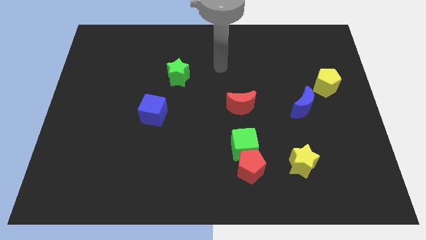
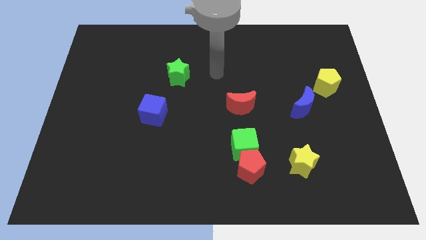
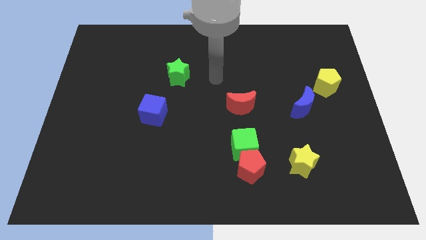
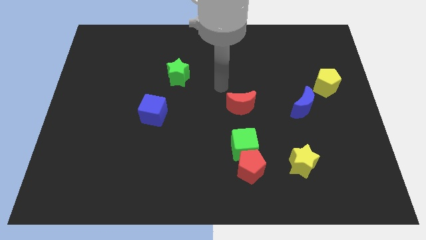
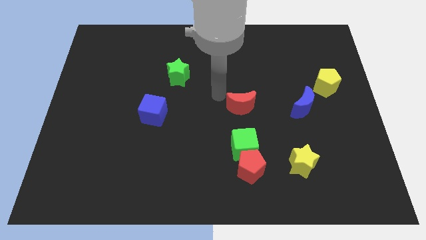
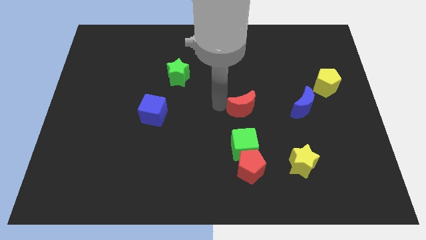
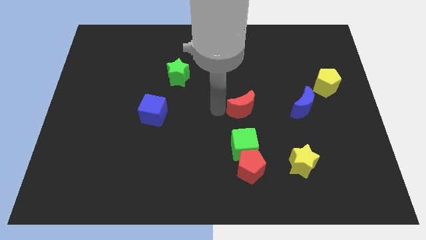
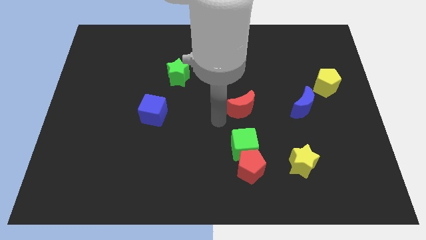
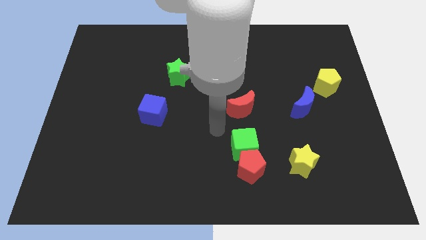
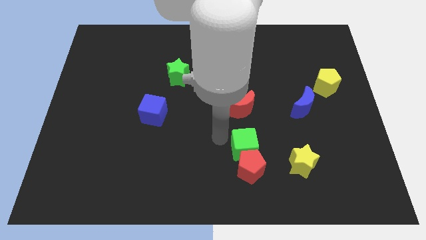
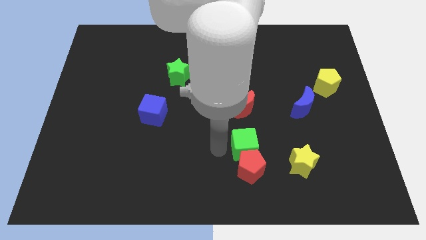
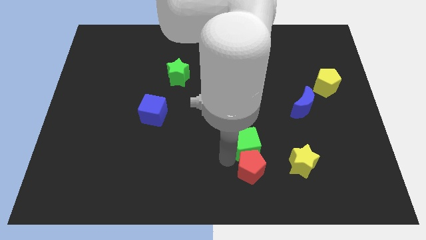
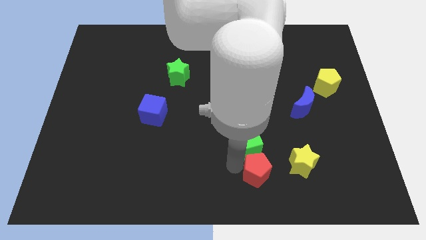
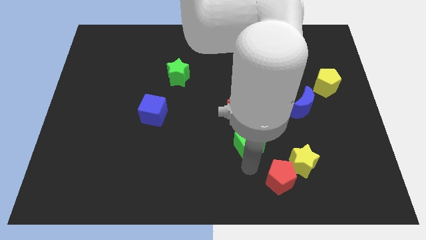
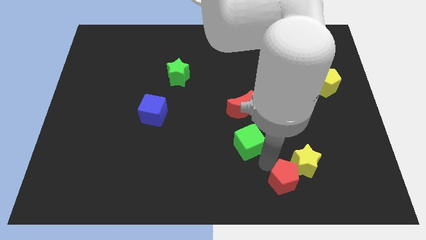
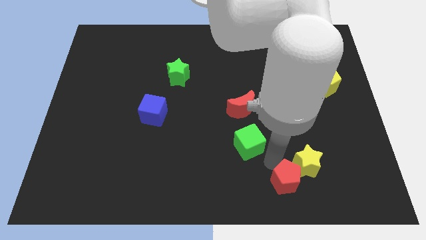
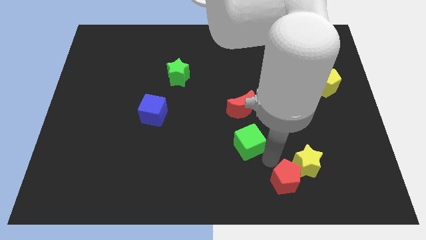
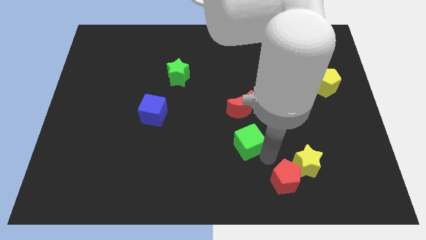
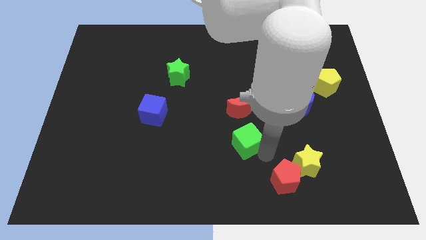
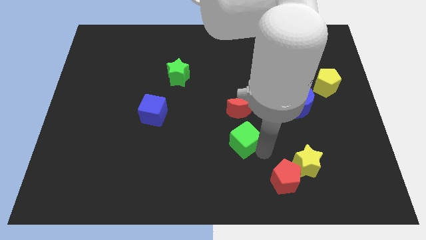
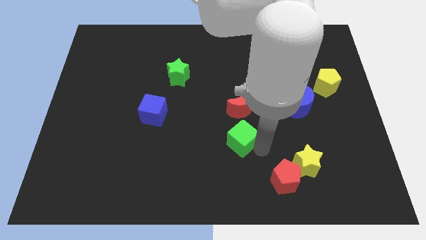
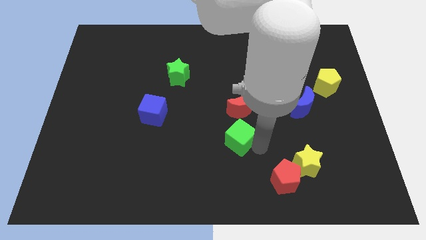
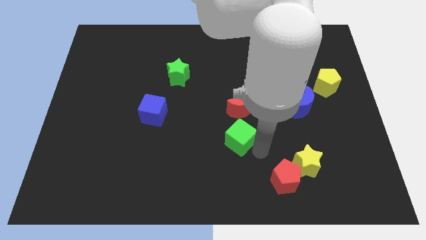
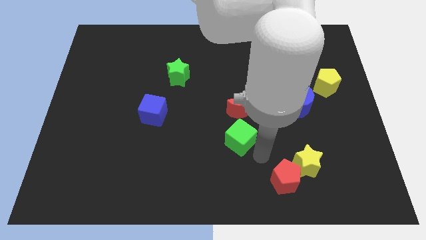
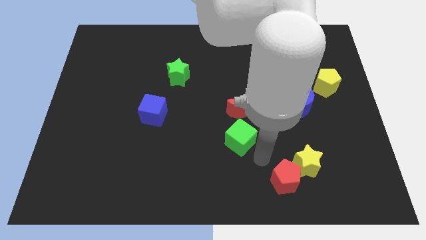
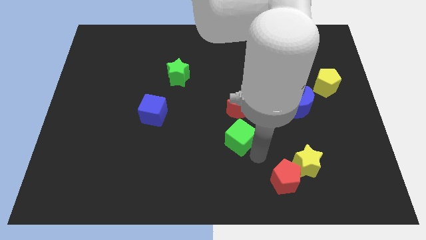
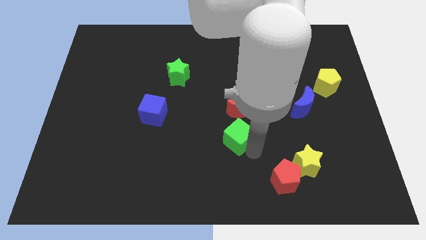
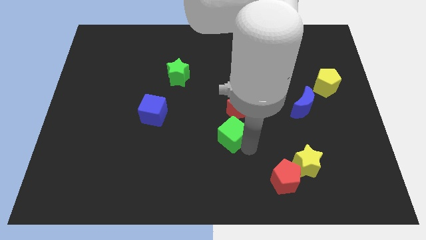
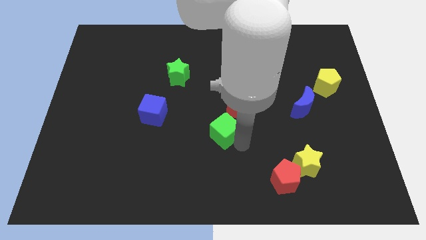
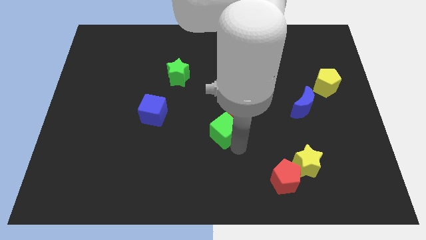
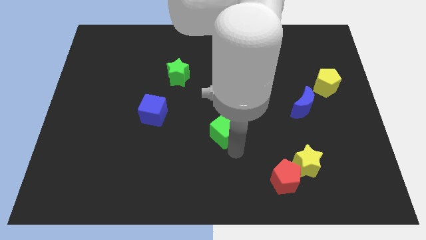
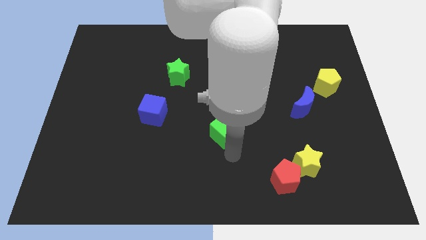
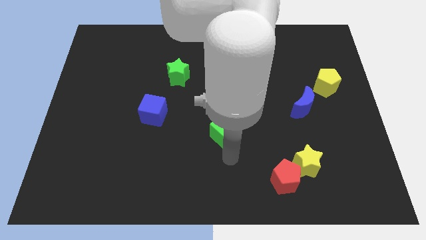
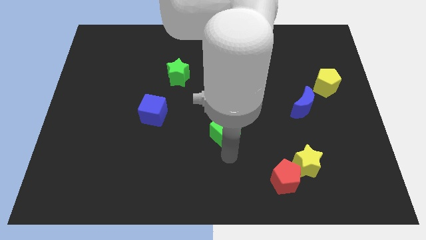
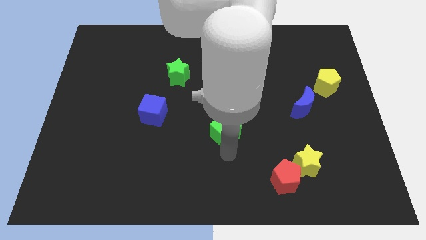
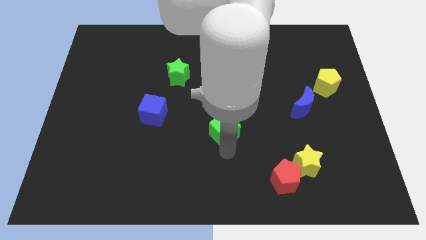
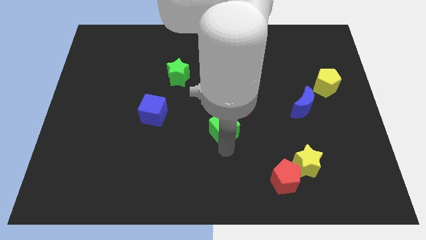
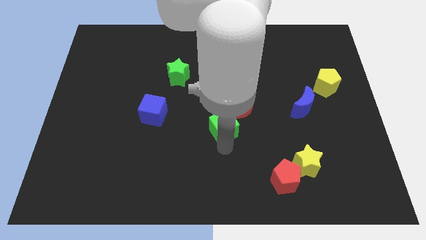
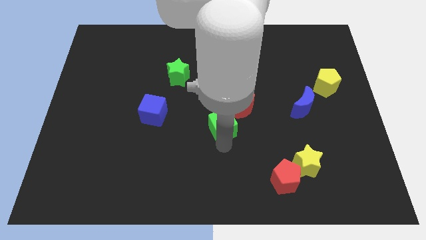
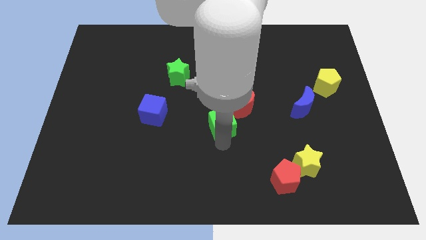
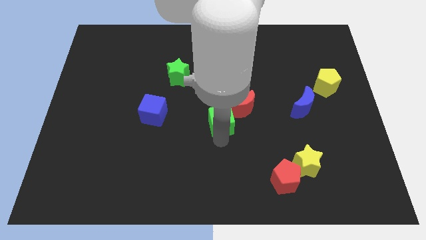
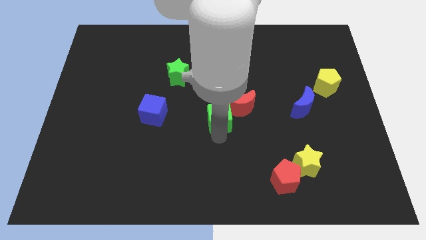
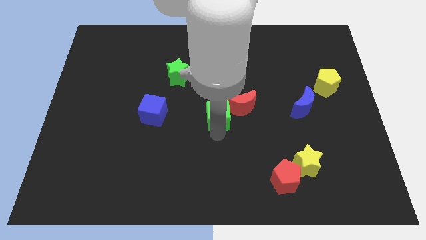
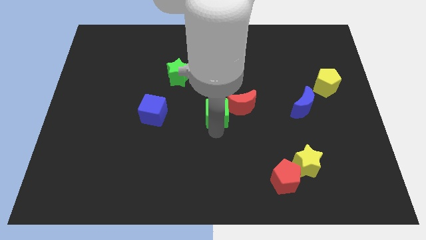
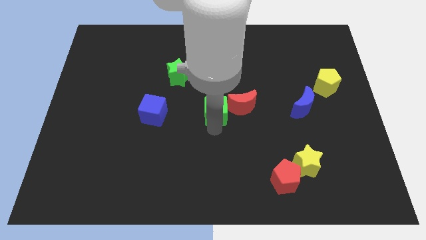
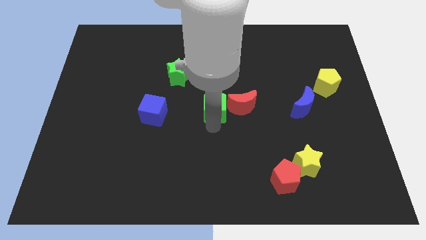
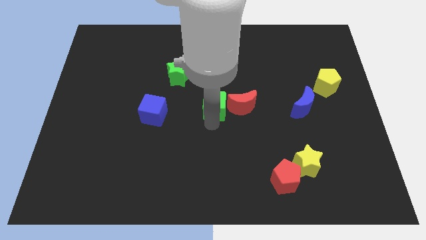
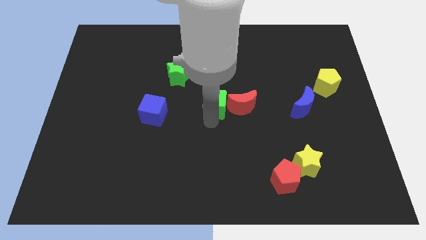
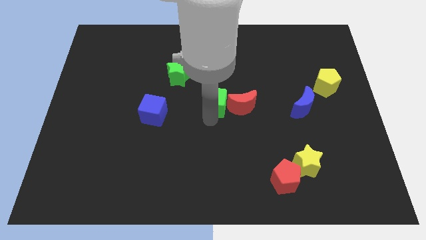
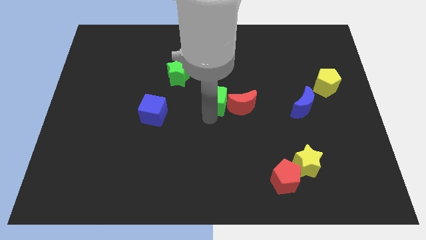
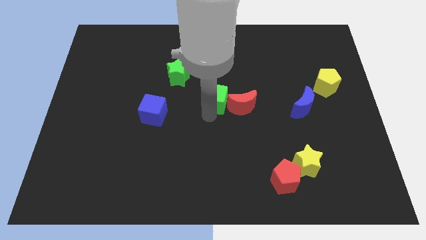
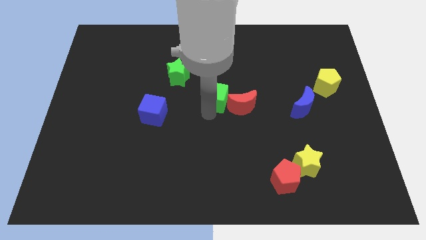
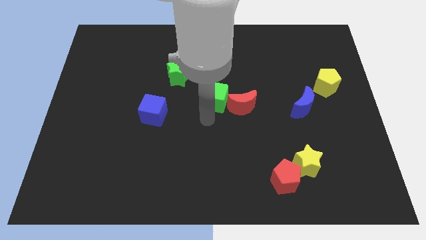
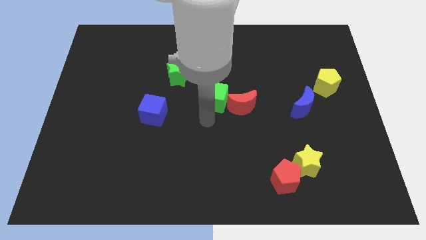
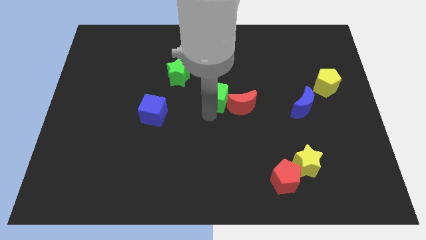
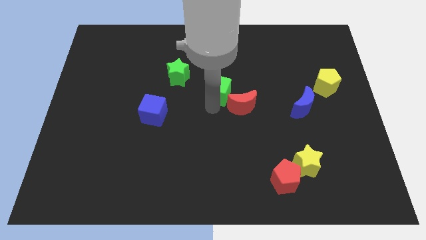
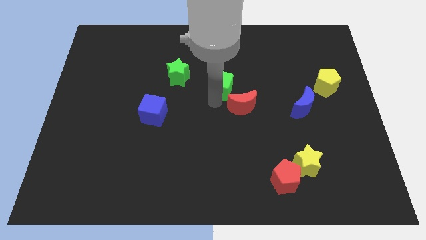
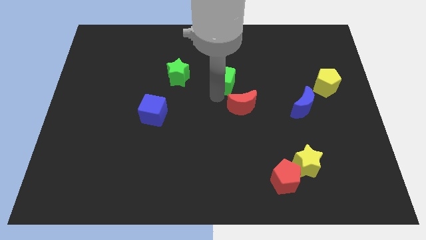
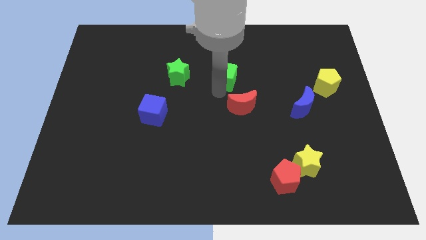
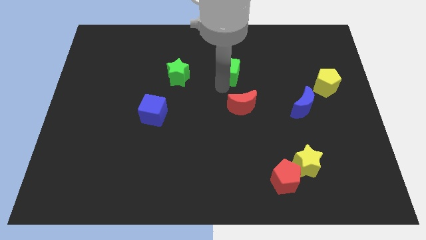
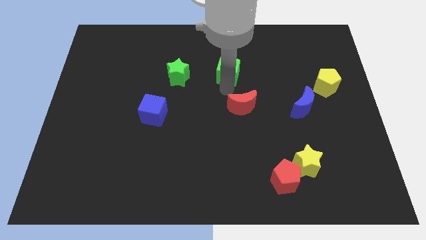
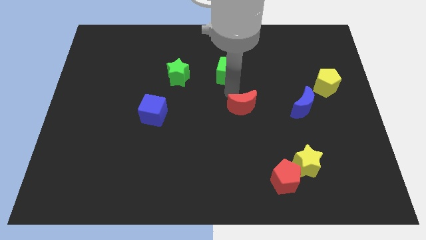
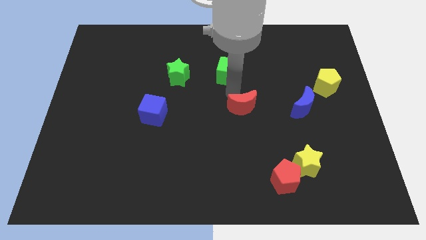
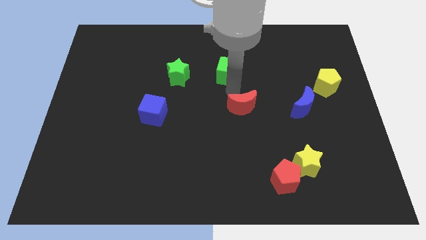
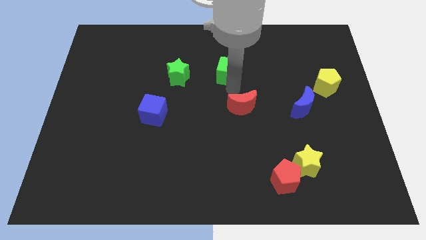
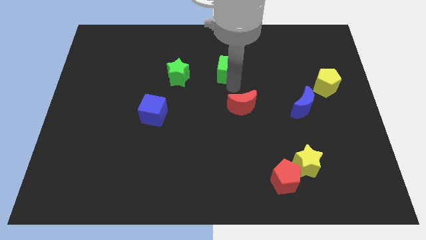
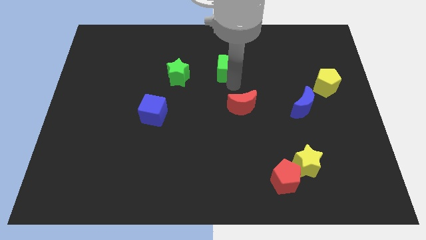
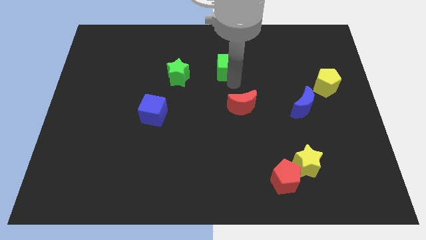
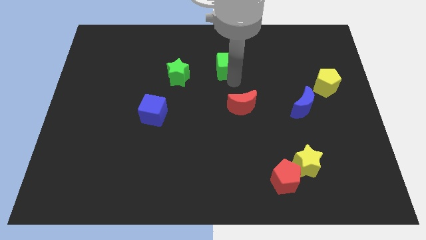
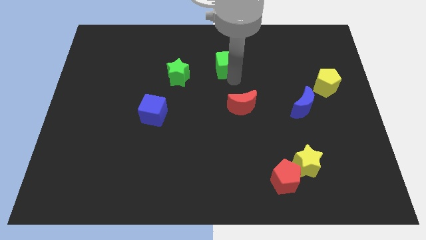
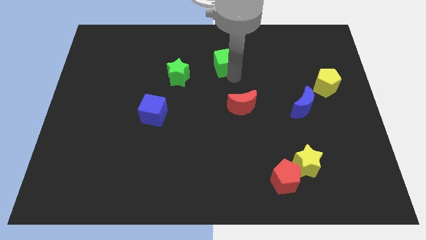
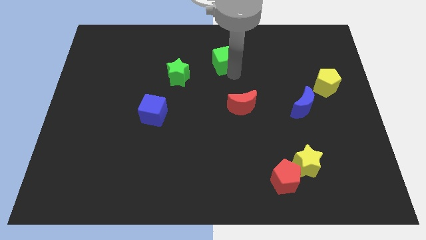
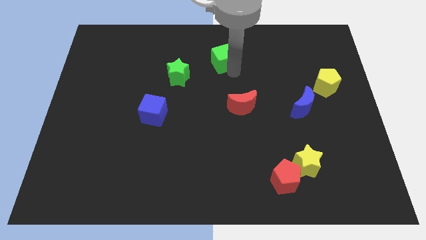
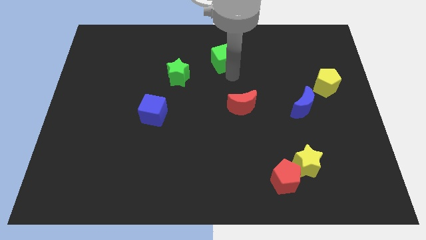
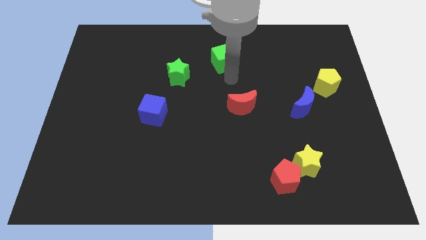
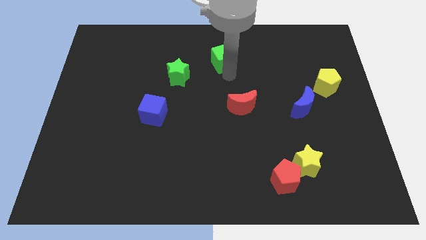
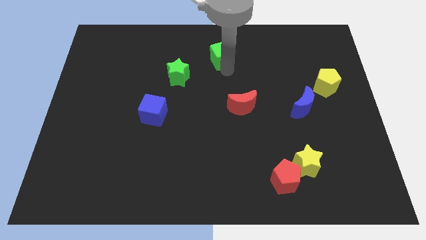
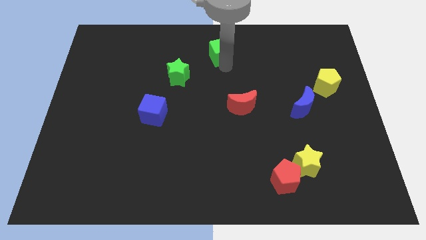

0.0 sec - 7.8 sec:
put the green cube to the top
